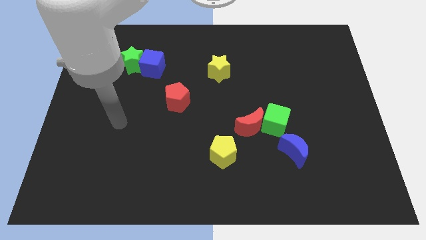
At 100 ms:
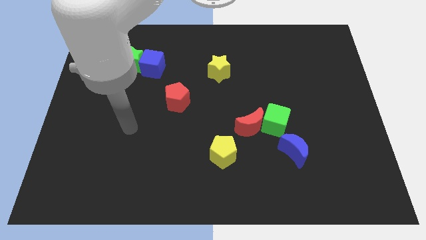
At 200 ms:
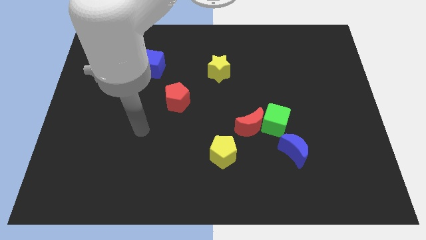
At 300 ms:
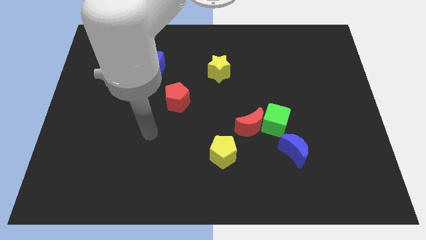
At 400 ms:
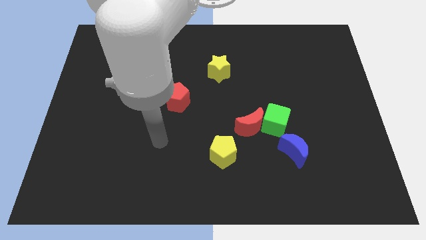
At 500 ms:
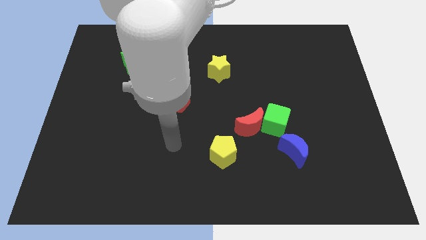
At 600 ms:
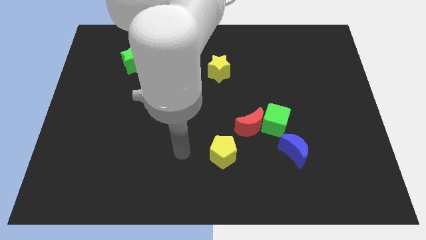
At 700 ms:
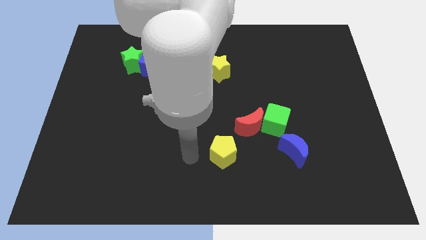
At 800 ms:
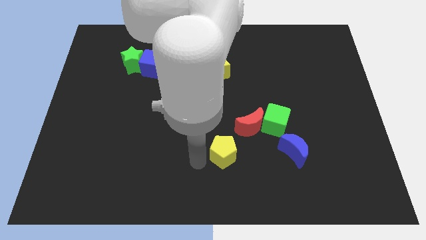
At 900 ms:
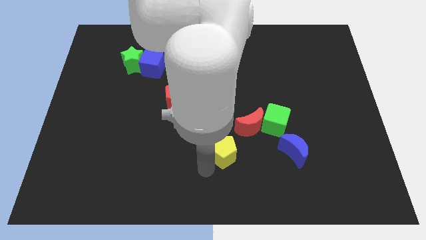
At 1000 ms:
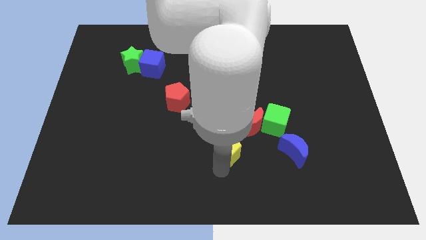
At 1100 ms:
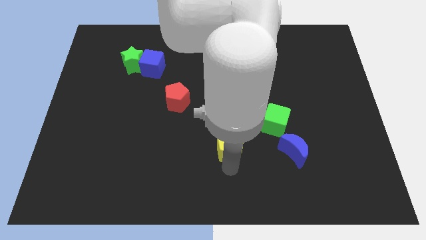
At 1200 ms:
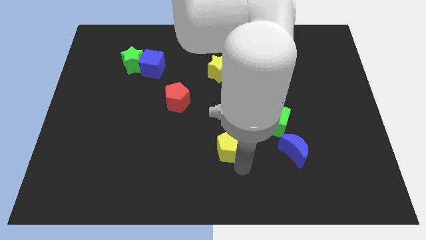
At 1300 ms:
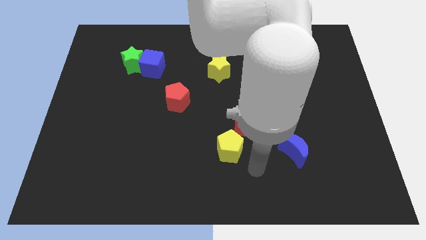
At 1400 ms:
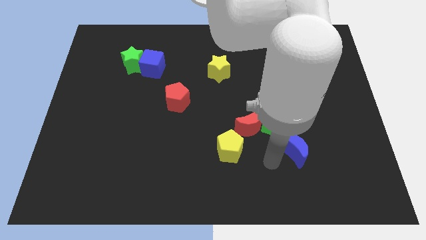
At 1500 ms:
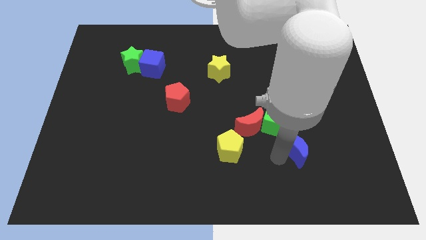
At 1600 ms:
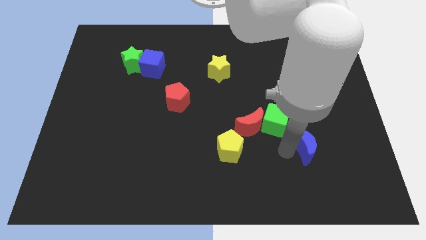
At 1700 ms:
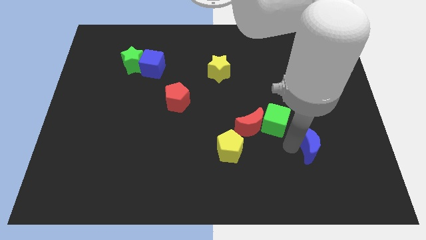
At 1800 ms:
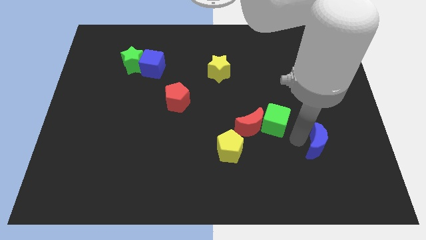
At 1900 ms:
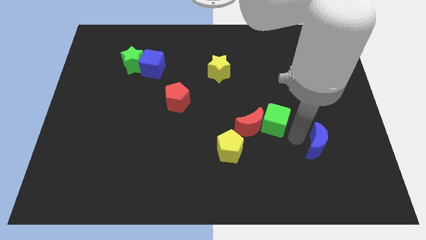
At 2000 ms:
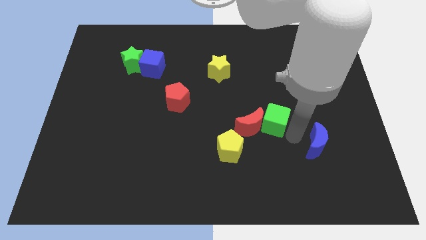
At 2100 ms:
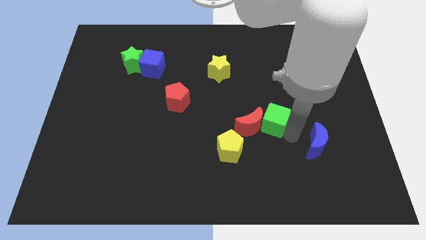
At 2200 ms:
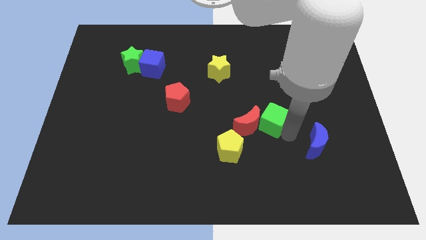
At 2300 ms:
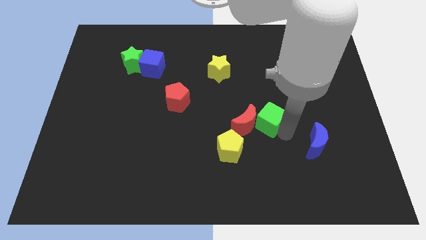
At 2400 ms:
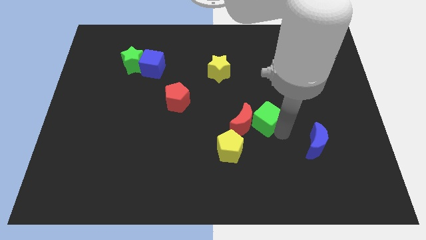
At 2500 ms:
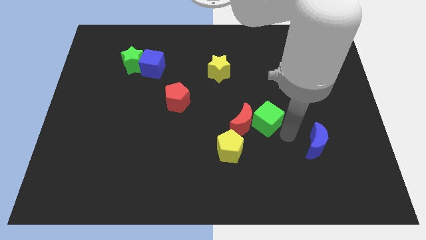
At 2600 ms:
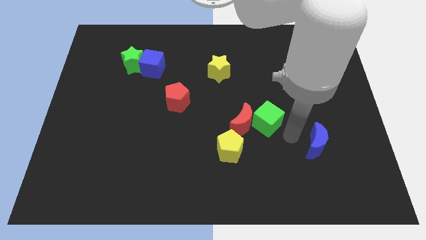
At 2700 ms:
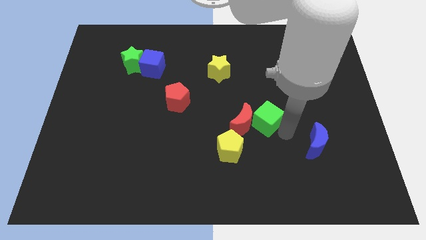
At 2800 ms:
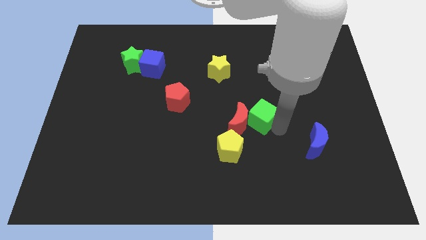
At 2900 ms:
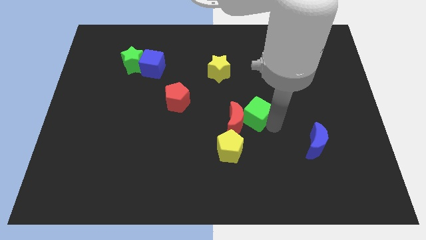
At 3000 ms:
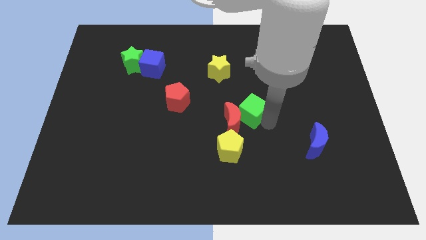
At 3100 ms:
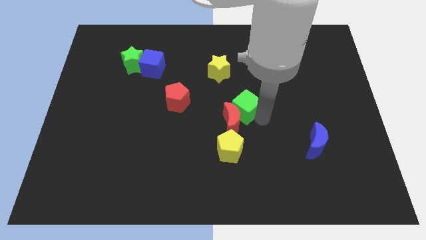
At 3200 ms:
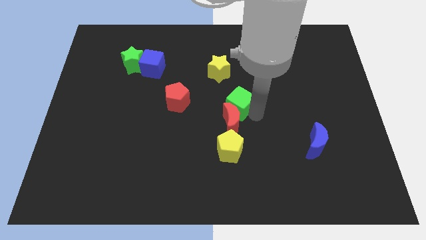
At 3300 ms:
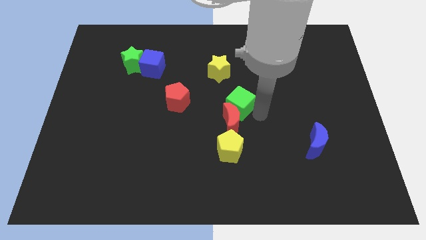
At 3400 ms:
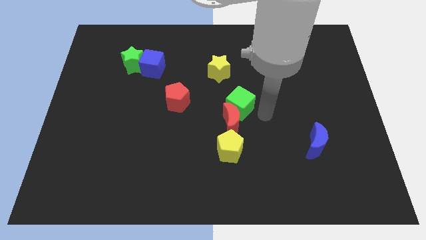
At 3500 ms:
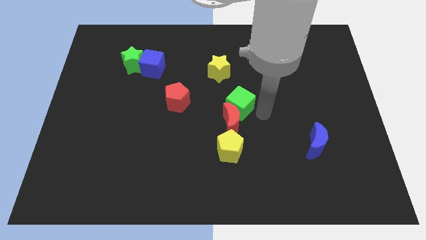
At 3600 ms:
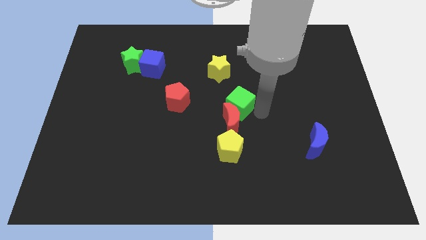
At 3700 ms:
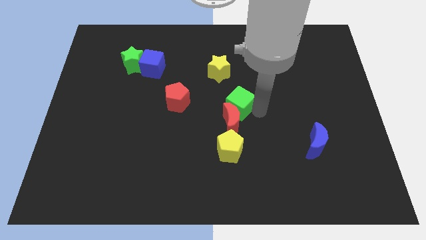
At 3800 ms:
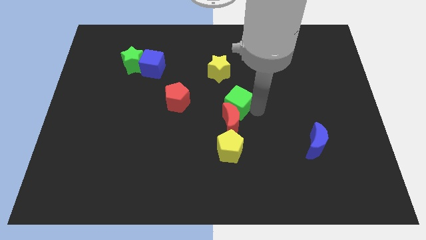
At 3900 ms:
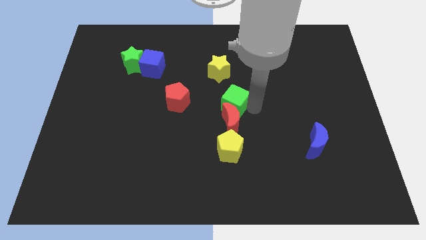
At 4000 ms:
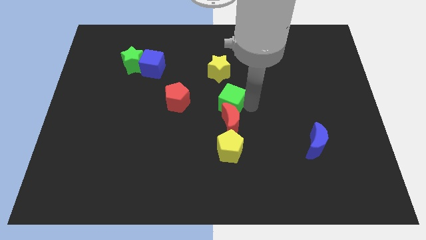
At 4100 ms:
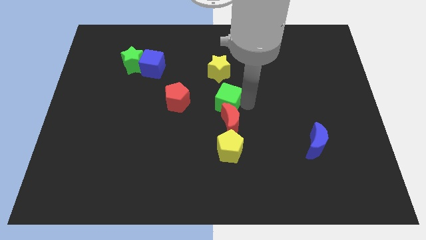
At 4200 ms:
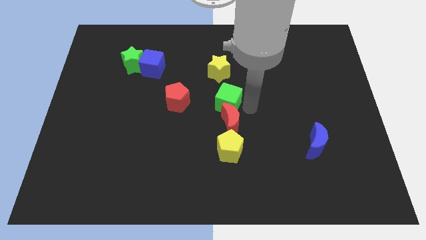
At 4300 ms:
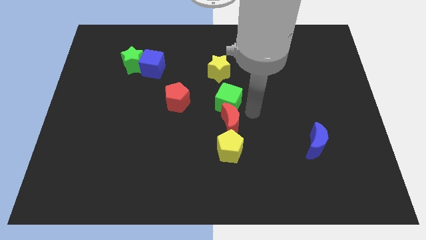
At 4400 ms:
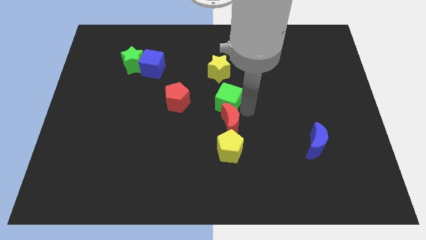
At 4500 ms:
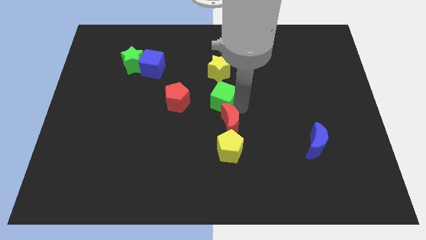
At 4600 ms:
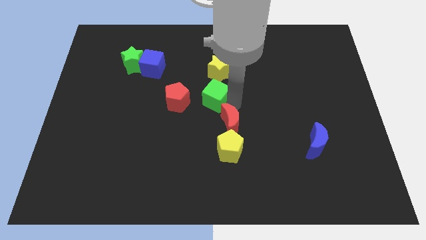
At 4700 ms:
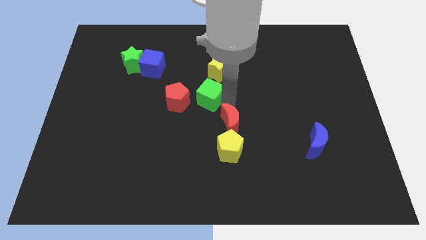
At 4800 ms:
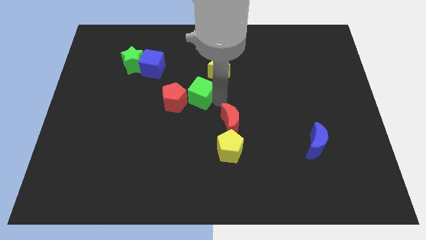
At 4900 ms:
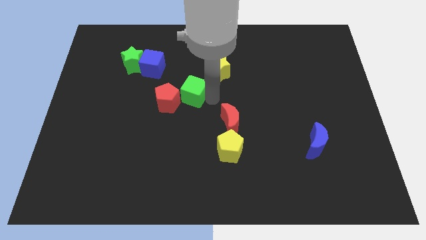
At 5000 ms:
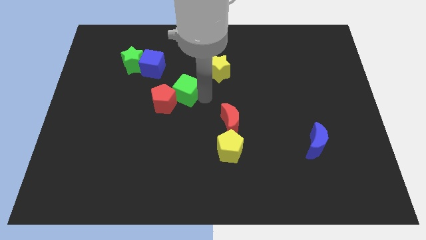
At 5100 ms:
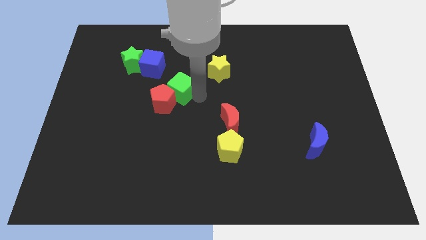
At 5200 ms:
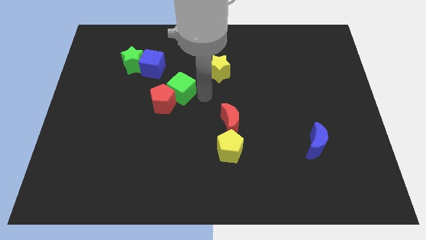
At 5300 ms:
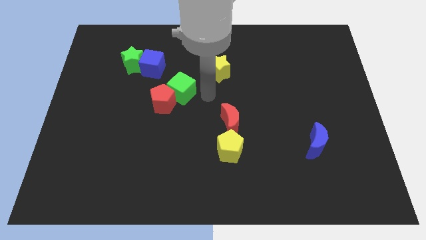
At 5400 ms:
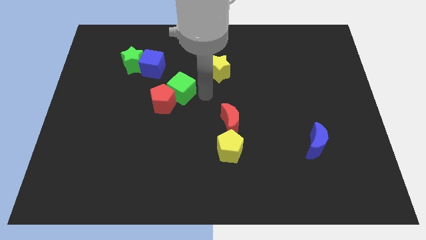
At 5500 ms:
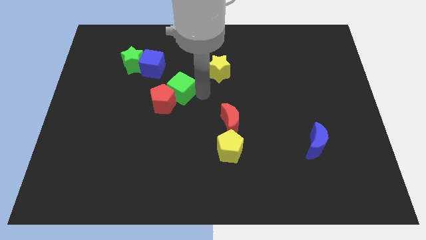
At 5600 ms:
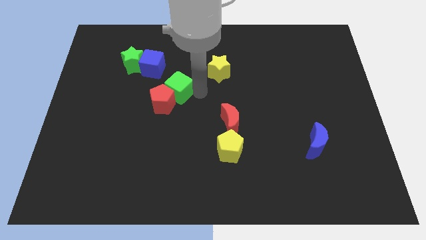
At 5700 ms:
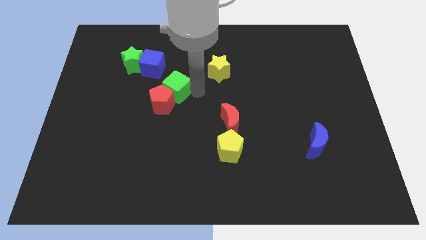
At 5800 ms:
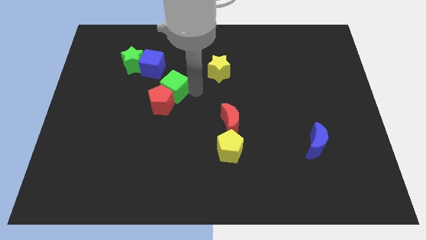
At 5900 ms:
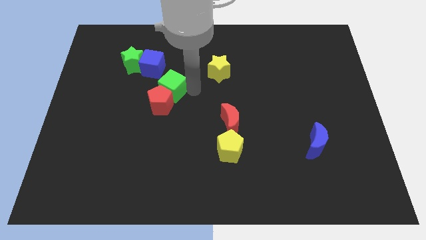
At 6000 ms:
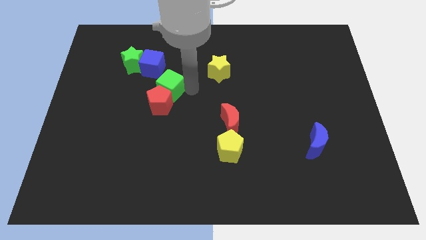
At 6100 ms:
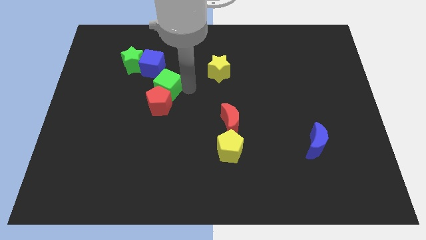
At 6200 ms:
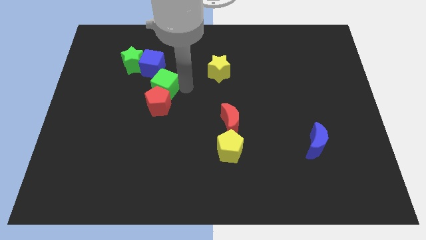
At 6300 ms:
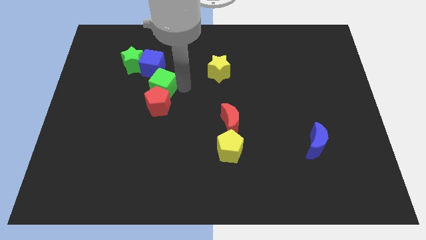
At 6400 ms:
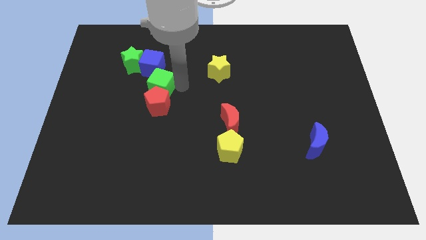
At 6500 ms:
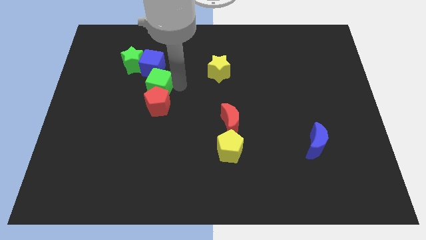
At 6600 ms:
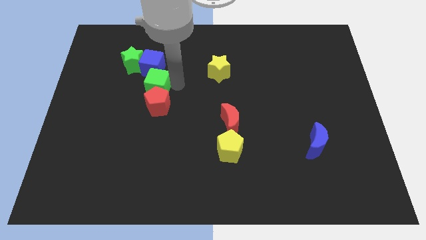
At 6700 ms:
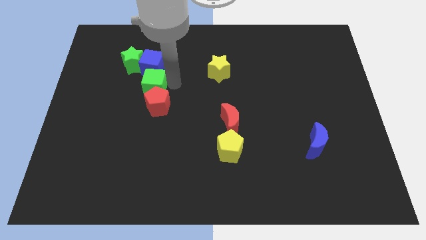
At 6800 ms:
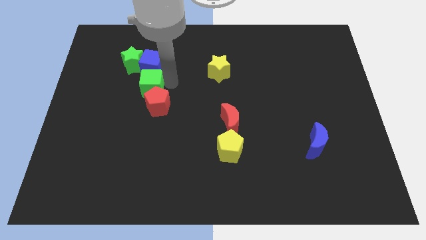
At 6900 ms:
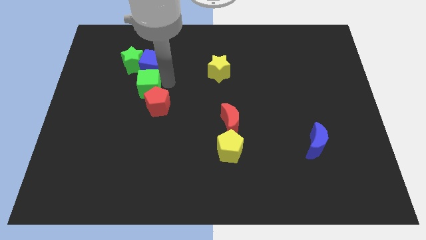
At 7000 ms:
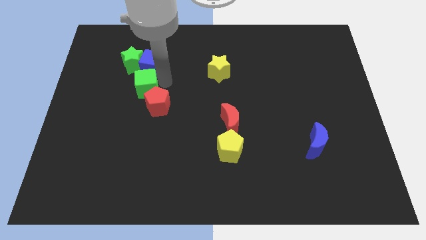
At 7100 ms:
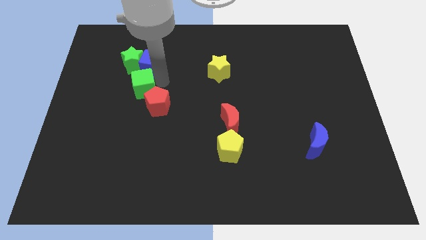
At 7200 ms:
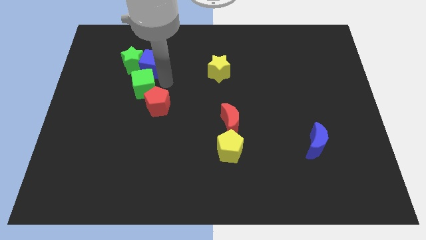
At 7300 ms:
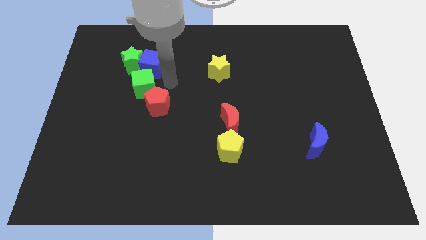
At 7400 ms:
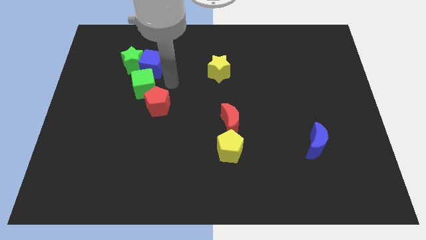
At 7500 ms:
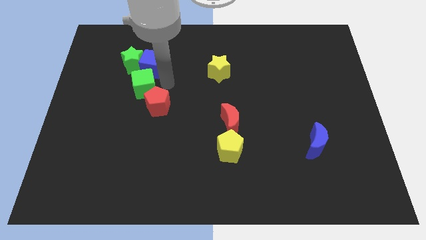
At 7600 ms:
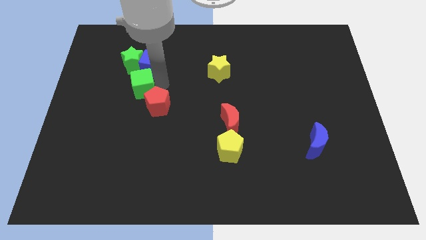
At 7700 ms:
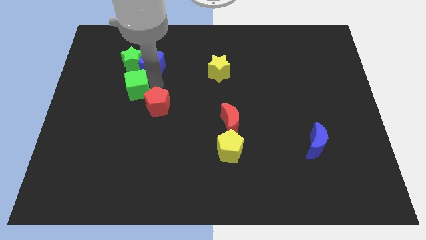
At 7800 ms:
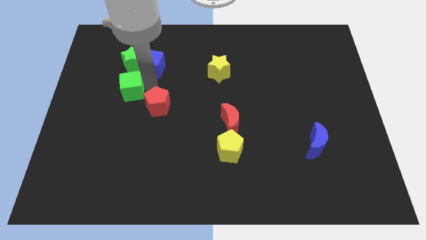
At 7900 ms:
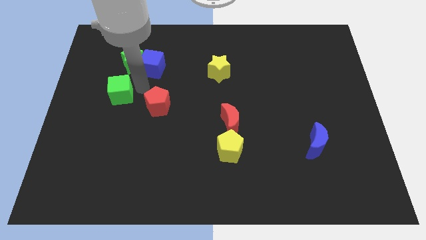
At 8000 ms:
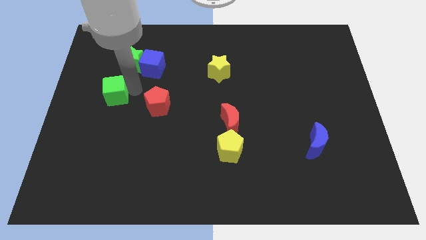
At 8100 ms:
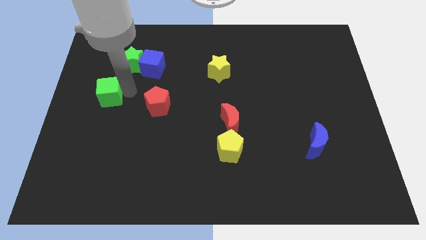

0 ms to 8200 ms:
move the green cube to the left side
